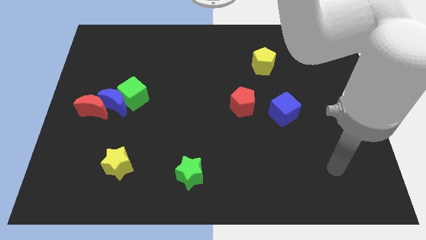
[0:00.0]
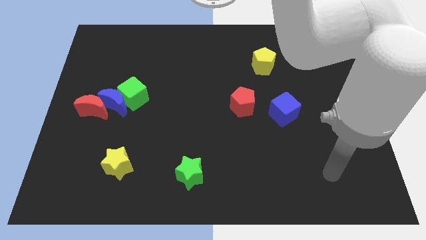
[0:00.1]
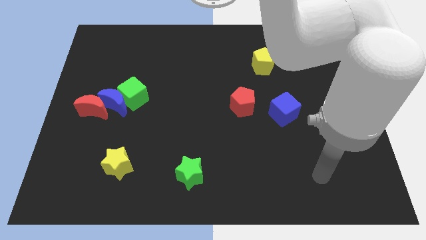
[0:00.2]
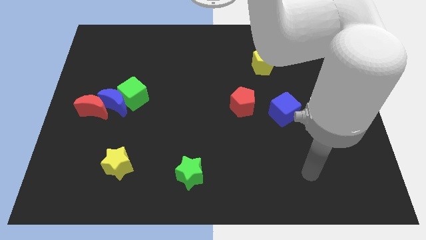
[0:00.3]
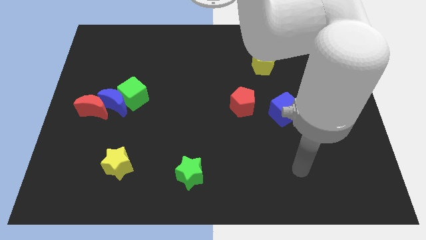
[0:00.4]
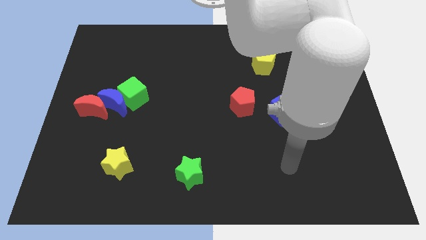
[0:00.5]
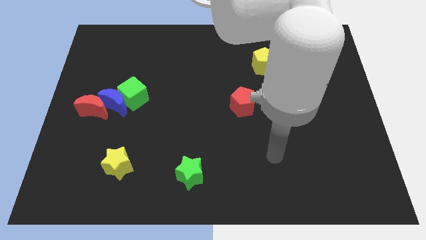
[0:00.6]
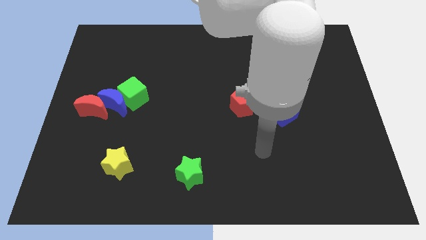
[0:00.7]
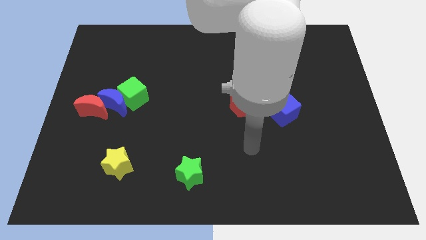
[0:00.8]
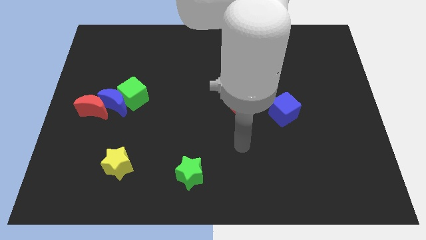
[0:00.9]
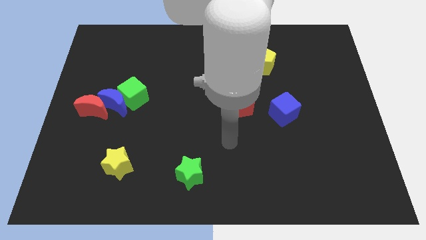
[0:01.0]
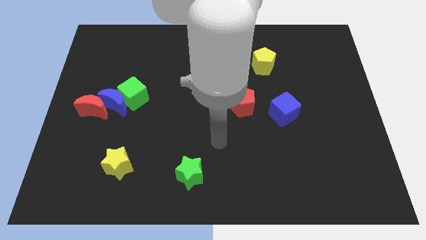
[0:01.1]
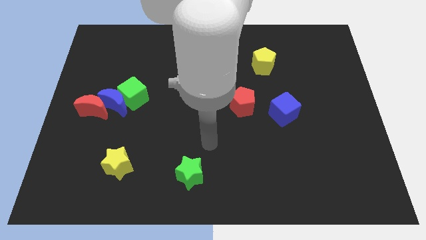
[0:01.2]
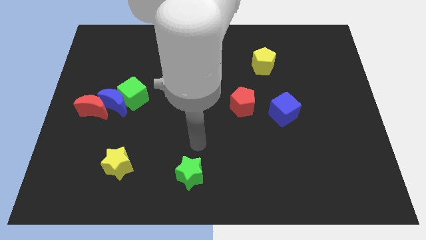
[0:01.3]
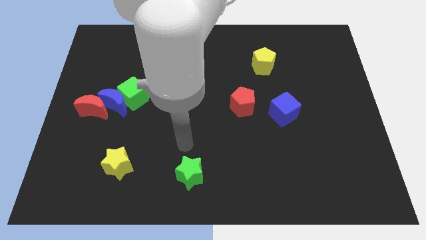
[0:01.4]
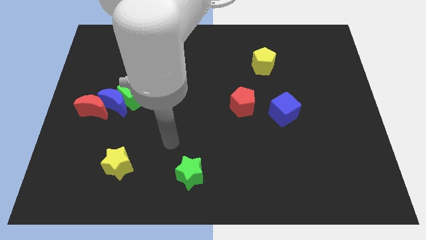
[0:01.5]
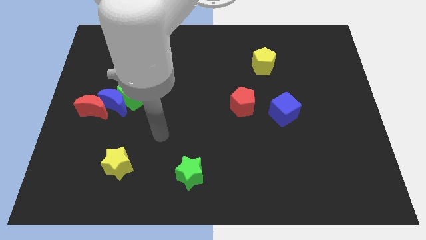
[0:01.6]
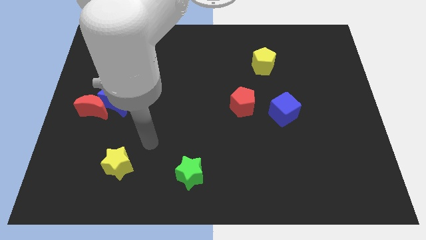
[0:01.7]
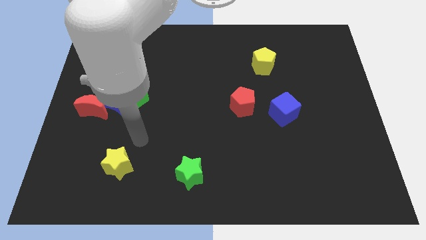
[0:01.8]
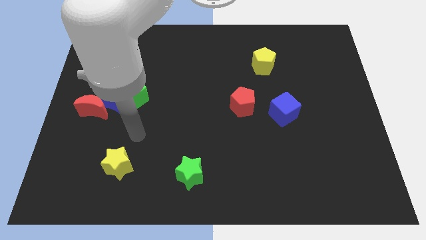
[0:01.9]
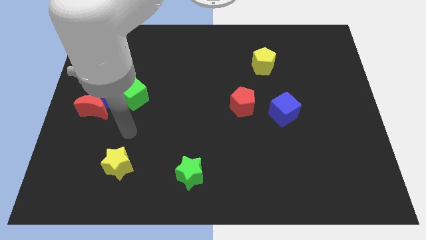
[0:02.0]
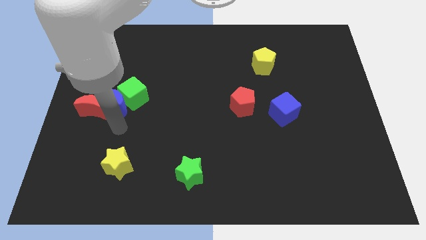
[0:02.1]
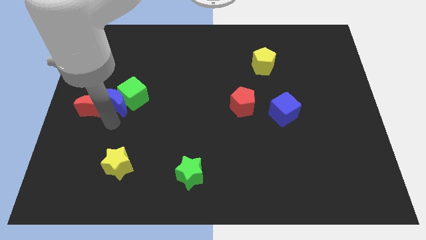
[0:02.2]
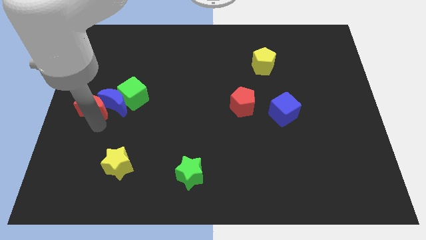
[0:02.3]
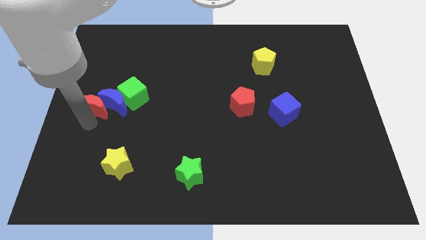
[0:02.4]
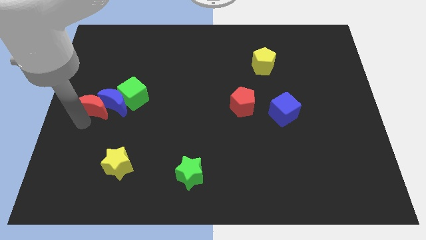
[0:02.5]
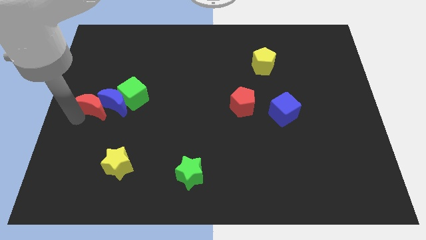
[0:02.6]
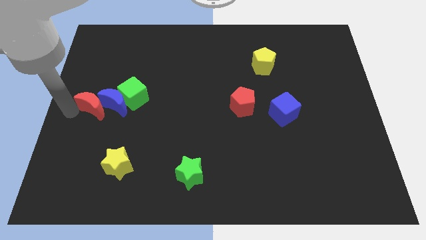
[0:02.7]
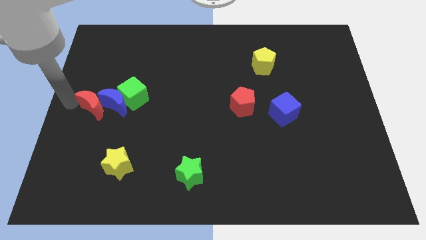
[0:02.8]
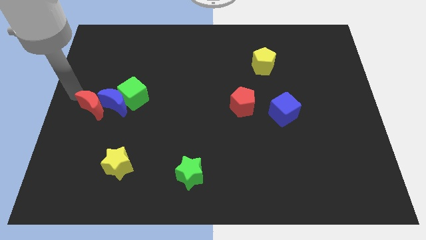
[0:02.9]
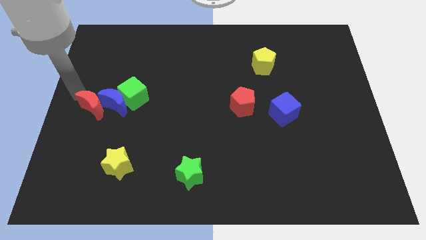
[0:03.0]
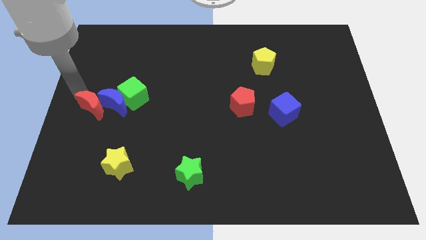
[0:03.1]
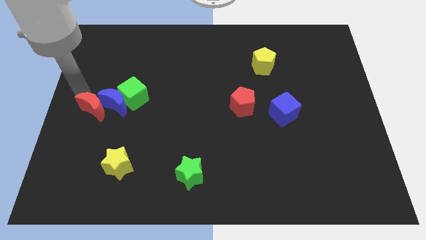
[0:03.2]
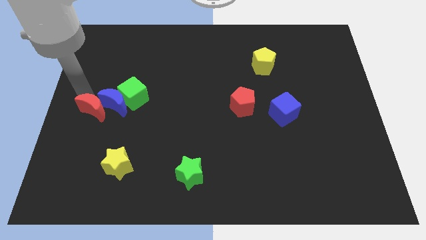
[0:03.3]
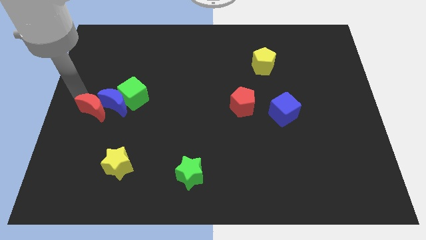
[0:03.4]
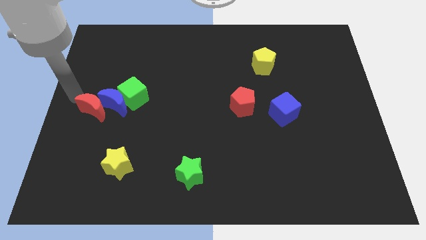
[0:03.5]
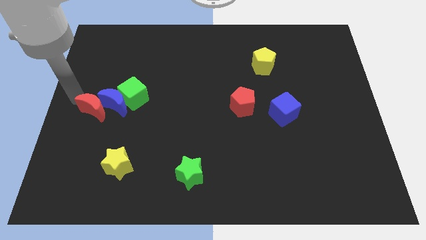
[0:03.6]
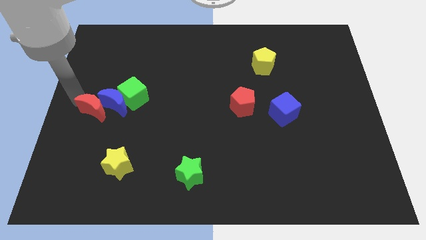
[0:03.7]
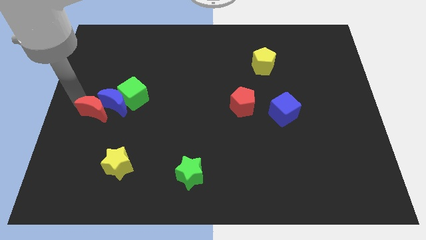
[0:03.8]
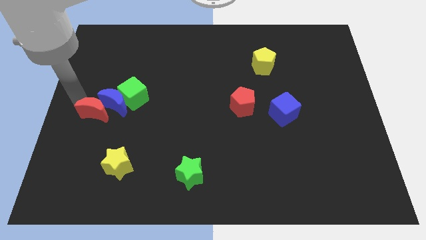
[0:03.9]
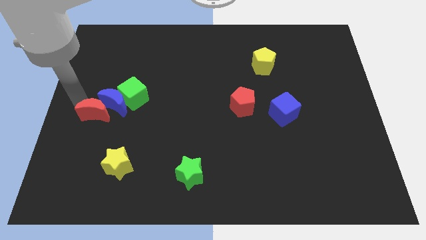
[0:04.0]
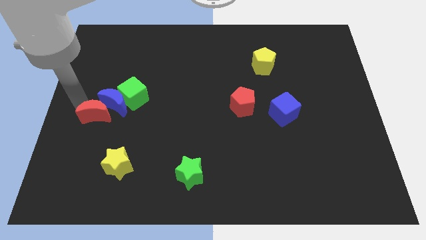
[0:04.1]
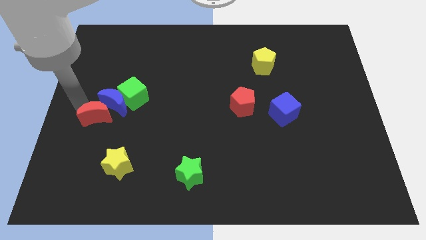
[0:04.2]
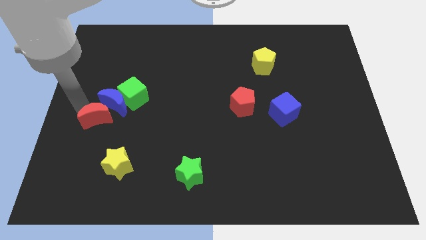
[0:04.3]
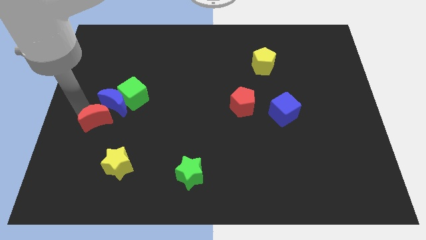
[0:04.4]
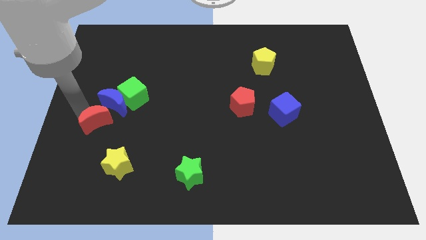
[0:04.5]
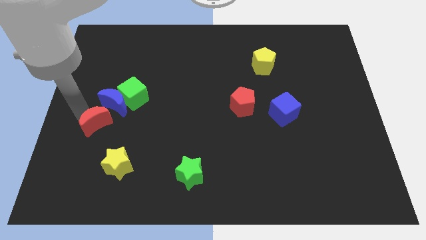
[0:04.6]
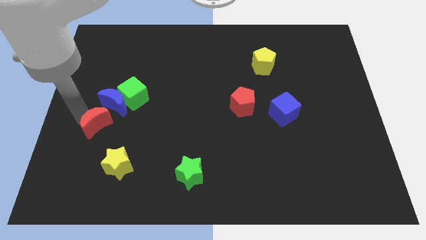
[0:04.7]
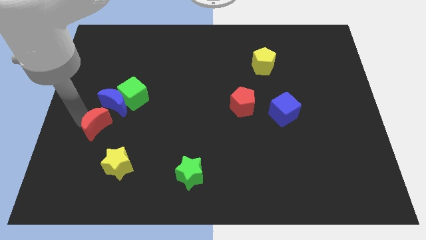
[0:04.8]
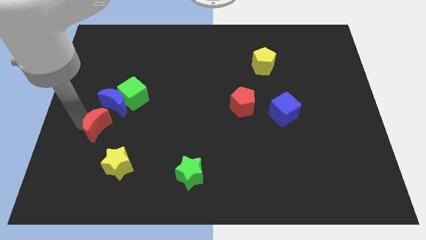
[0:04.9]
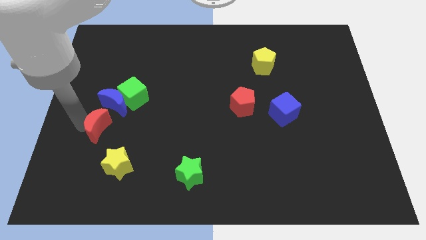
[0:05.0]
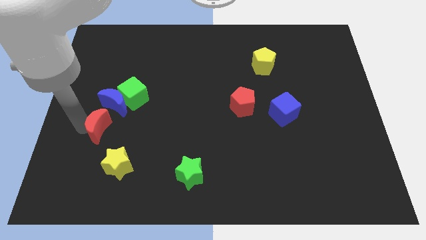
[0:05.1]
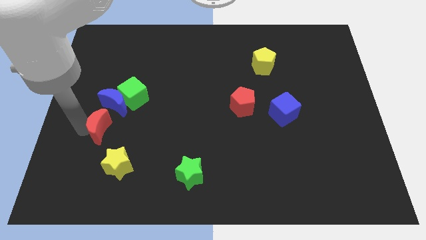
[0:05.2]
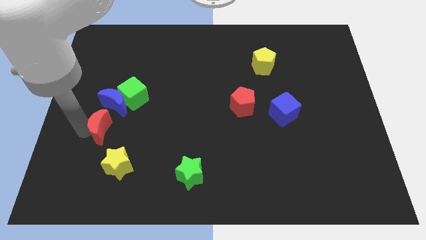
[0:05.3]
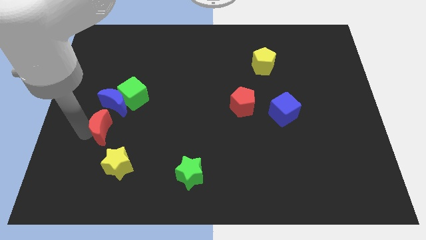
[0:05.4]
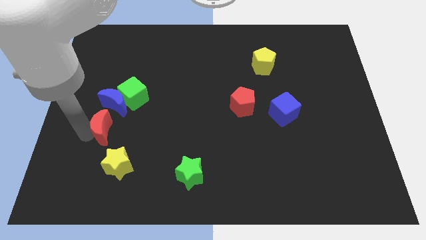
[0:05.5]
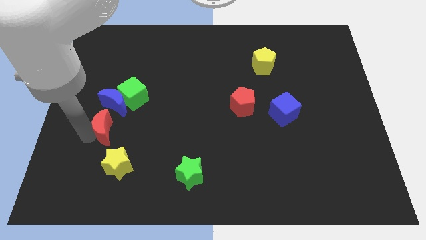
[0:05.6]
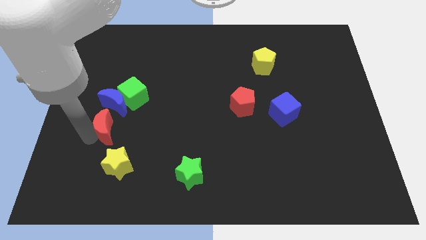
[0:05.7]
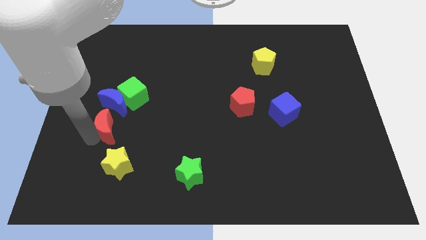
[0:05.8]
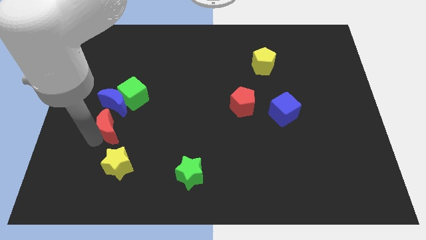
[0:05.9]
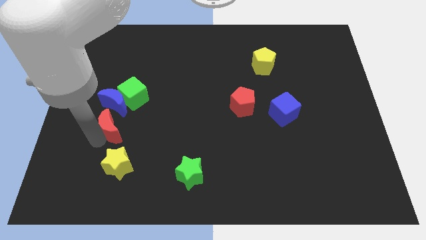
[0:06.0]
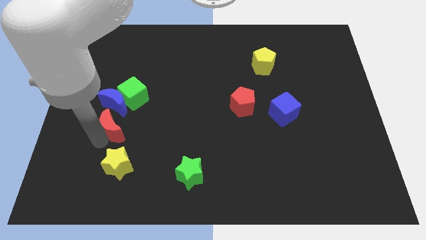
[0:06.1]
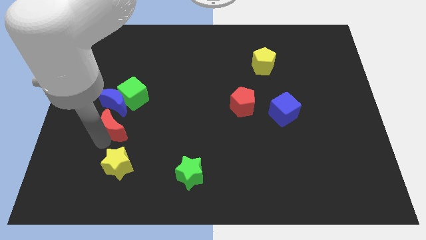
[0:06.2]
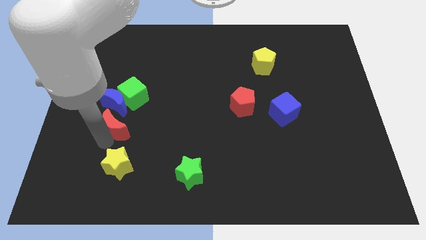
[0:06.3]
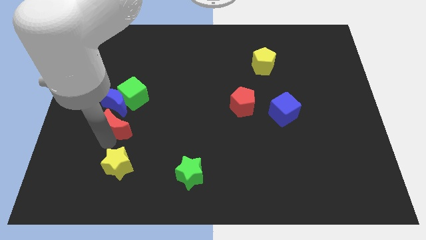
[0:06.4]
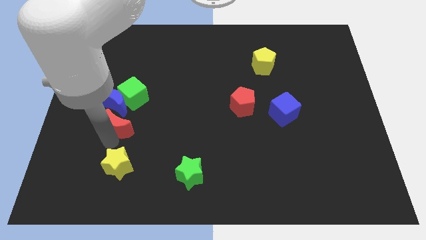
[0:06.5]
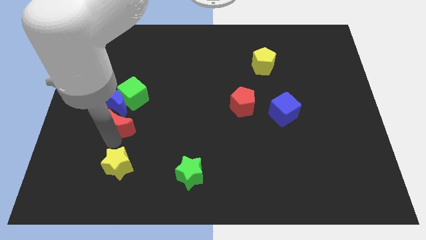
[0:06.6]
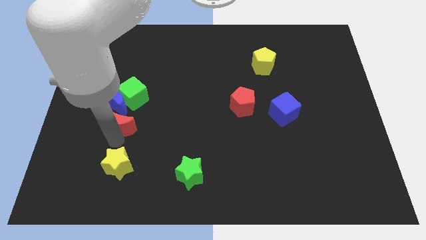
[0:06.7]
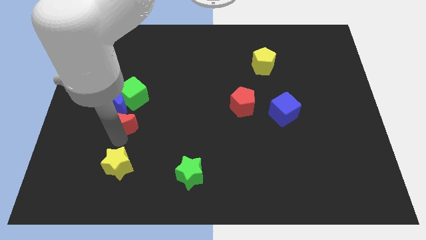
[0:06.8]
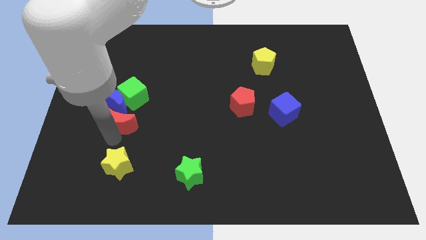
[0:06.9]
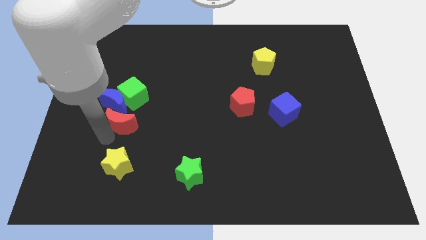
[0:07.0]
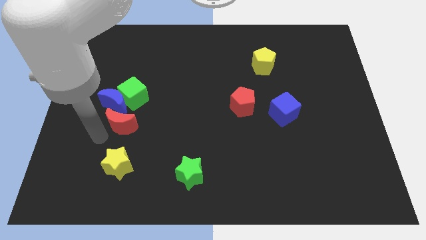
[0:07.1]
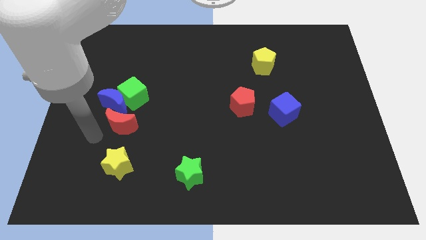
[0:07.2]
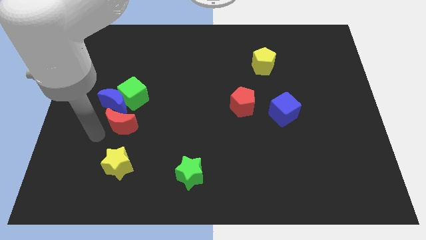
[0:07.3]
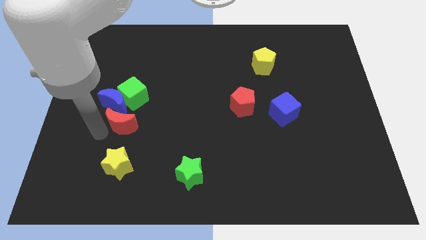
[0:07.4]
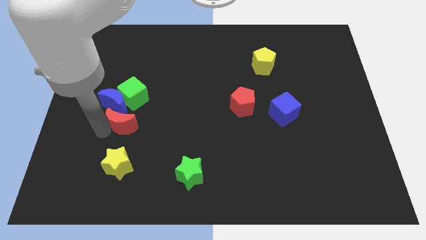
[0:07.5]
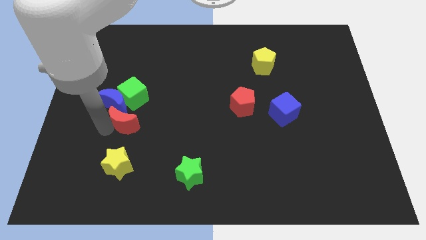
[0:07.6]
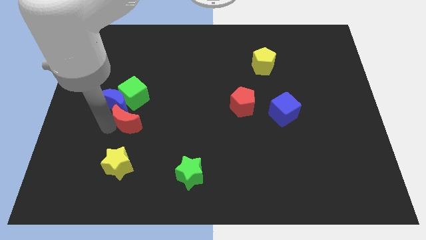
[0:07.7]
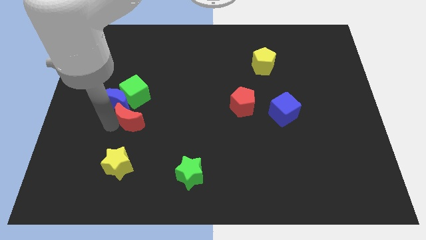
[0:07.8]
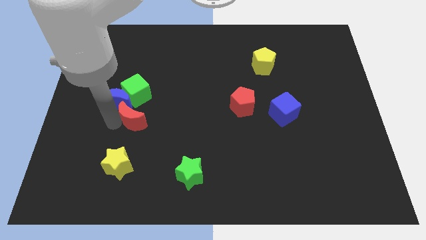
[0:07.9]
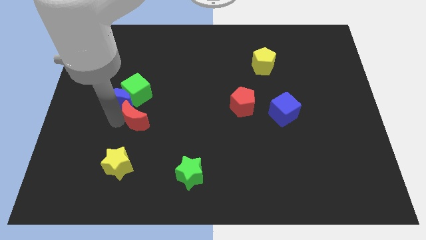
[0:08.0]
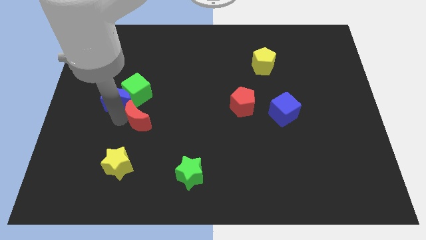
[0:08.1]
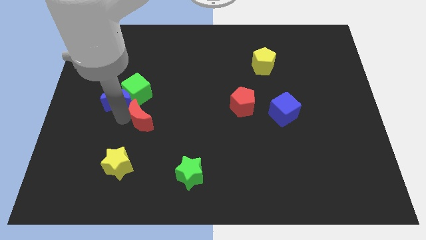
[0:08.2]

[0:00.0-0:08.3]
slide the red moon to the bottom right of the green cube
